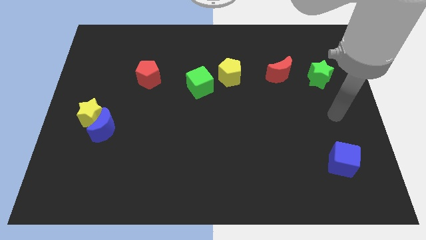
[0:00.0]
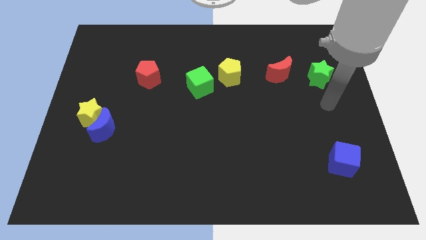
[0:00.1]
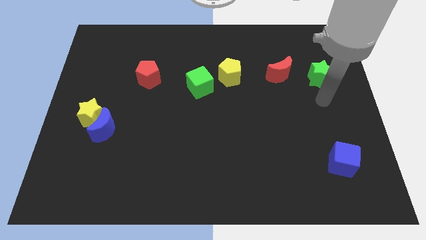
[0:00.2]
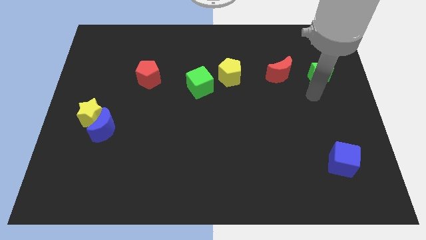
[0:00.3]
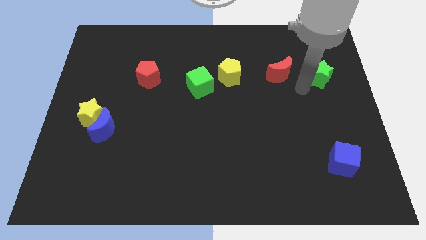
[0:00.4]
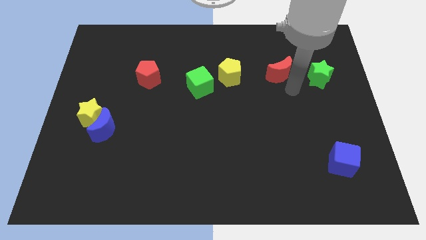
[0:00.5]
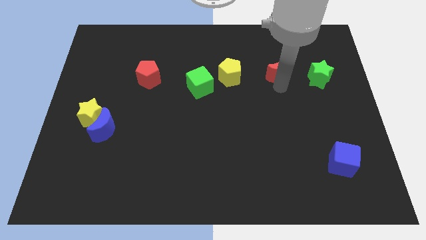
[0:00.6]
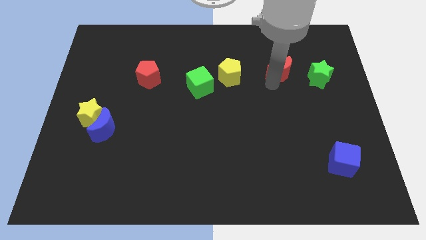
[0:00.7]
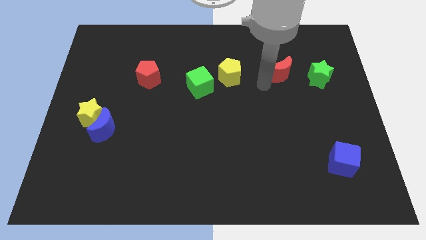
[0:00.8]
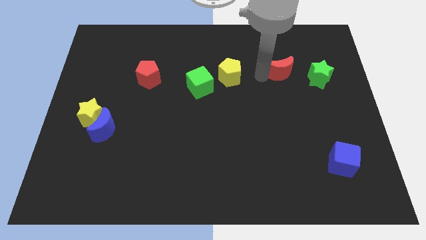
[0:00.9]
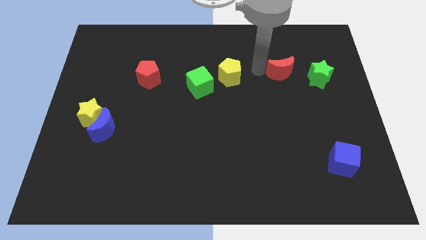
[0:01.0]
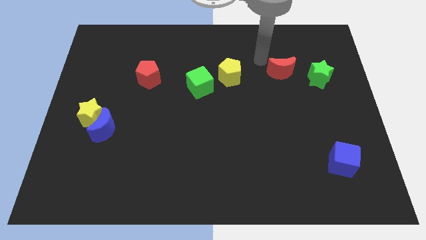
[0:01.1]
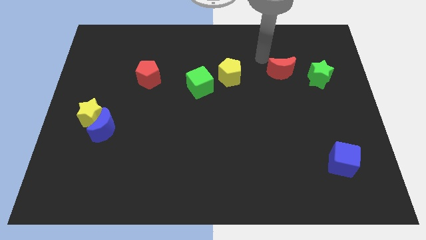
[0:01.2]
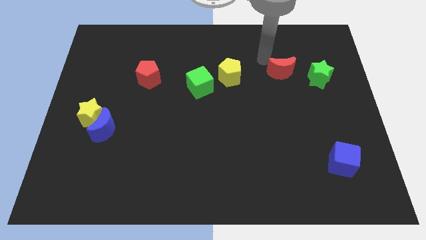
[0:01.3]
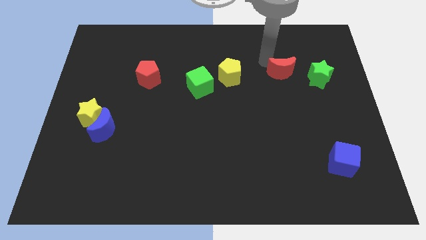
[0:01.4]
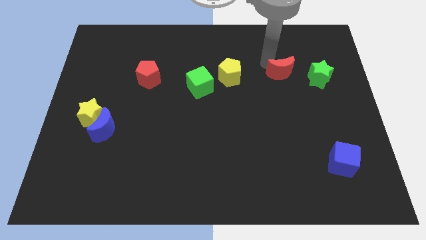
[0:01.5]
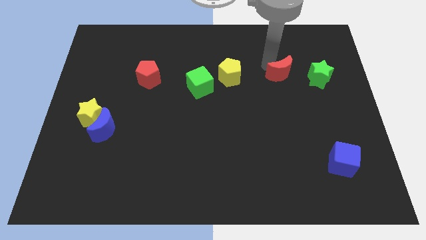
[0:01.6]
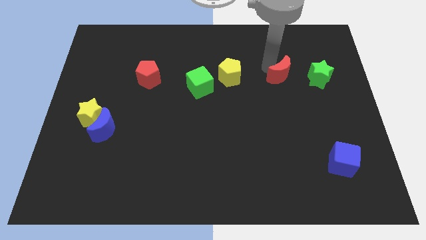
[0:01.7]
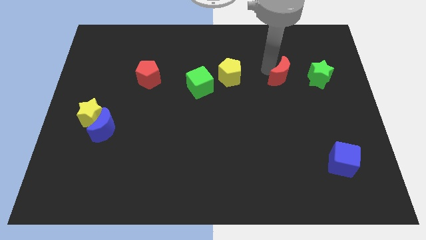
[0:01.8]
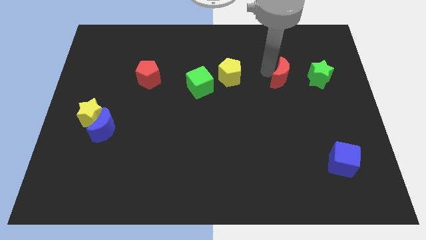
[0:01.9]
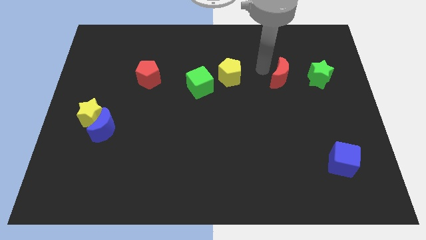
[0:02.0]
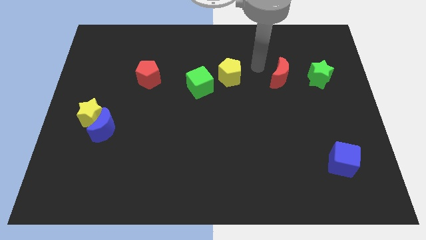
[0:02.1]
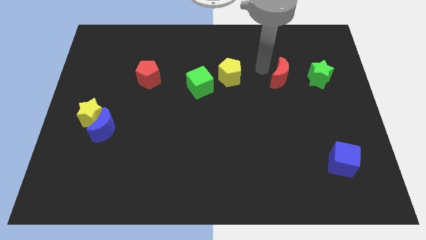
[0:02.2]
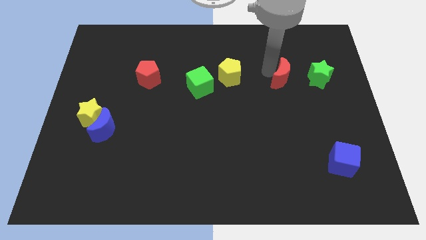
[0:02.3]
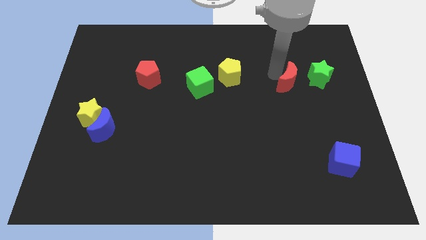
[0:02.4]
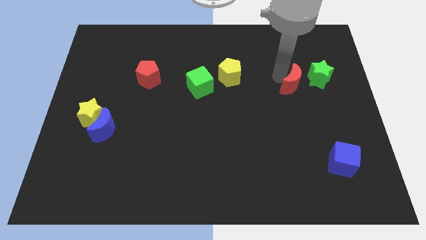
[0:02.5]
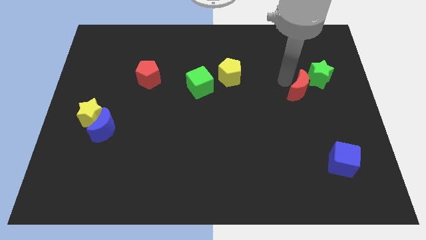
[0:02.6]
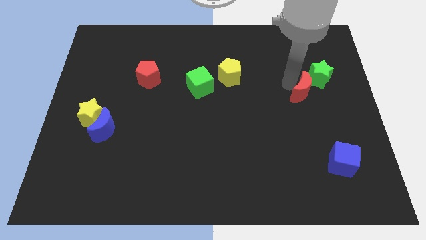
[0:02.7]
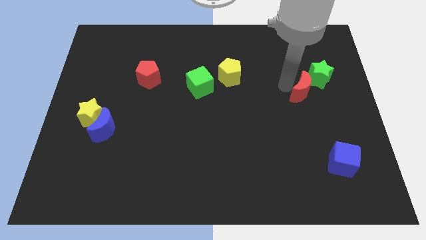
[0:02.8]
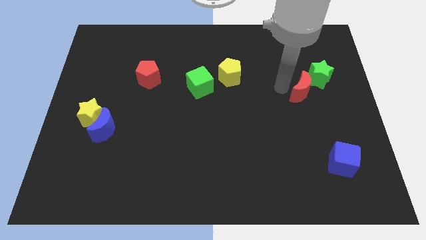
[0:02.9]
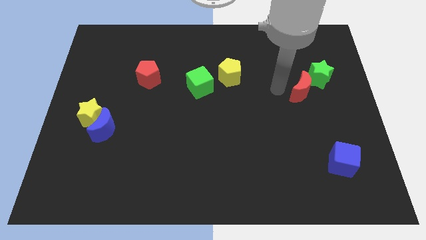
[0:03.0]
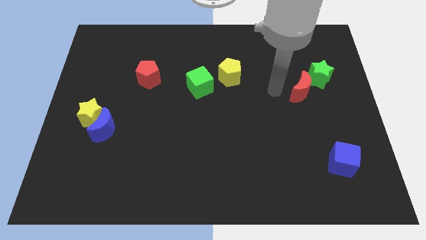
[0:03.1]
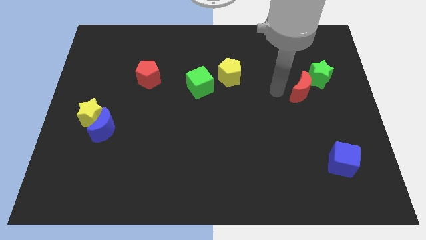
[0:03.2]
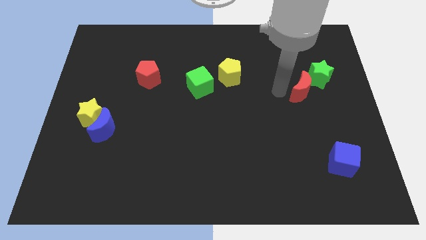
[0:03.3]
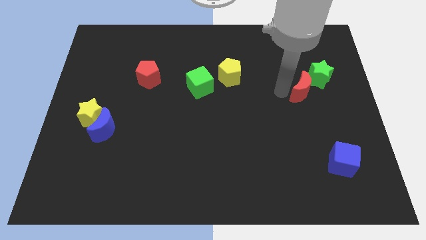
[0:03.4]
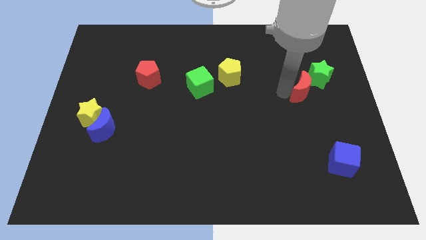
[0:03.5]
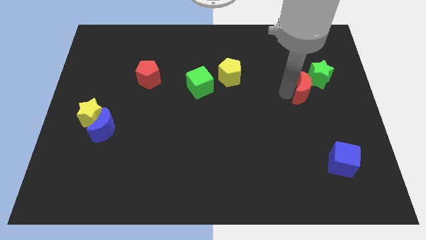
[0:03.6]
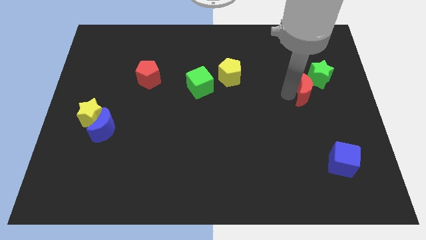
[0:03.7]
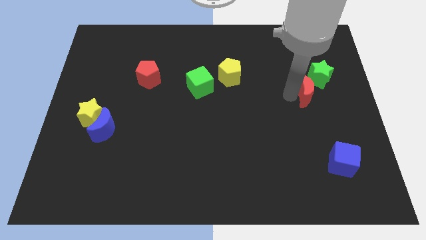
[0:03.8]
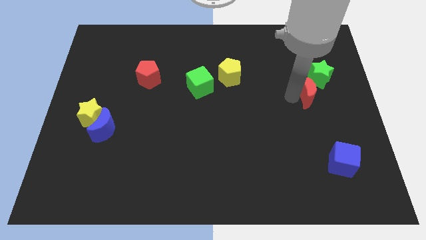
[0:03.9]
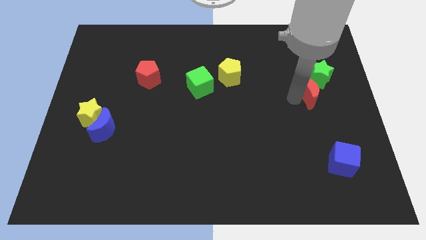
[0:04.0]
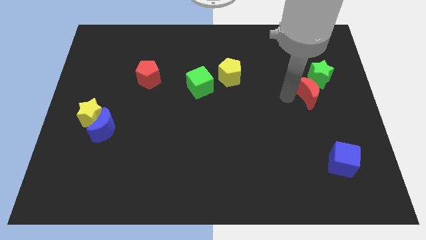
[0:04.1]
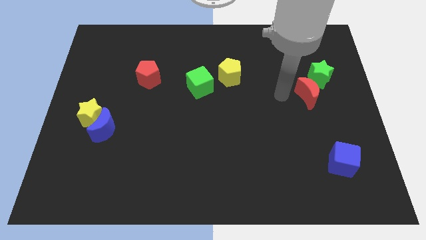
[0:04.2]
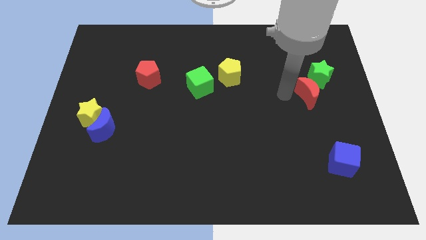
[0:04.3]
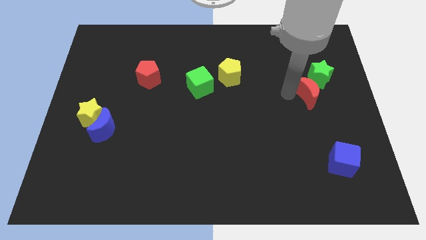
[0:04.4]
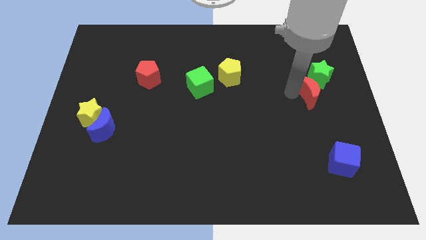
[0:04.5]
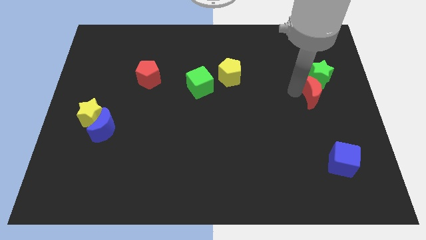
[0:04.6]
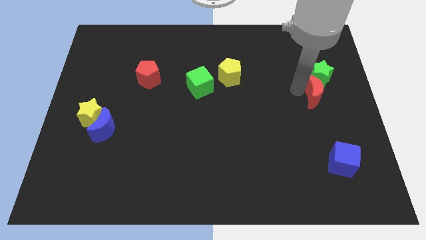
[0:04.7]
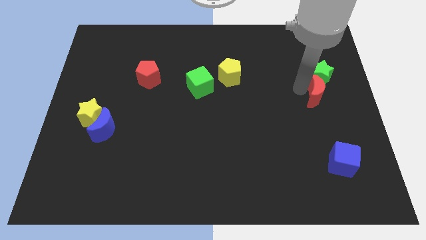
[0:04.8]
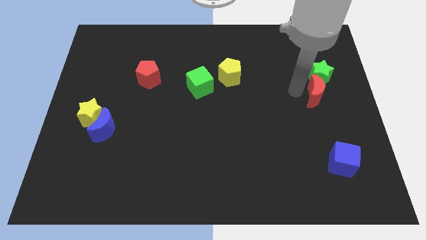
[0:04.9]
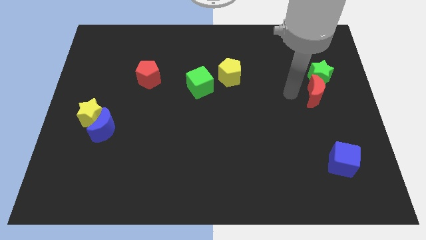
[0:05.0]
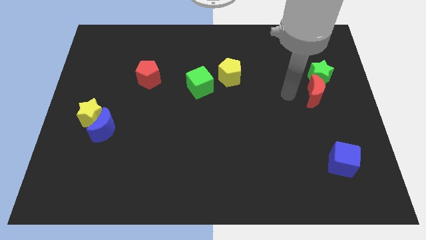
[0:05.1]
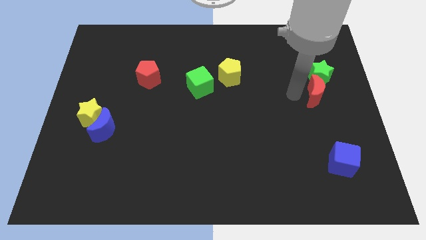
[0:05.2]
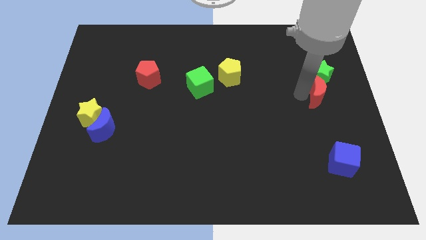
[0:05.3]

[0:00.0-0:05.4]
slide the red moon to the center right

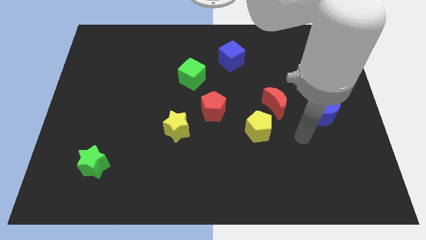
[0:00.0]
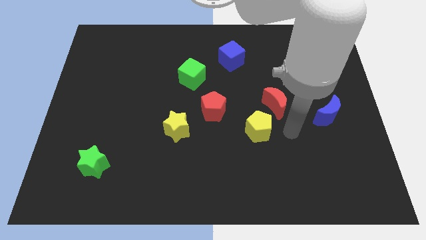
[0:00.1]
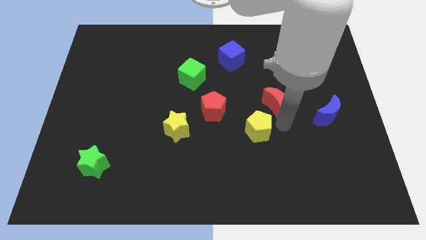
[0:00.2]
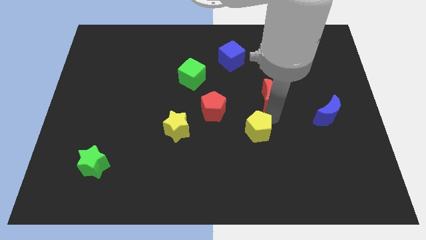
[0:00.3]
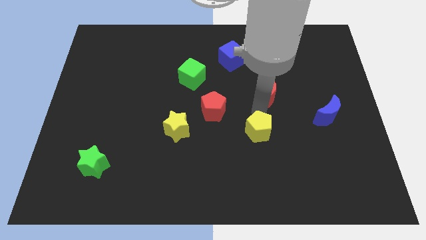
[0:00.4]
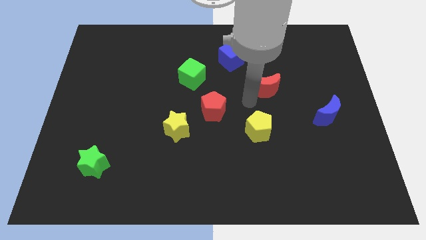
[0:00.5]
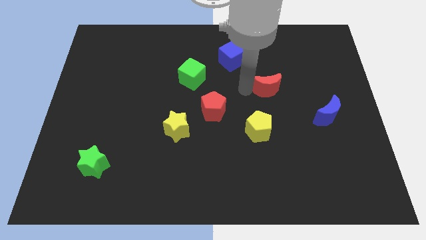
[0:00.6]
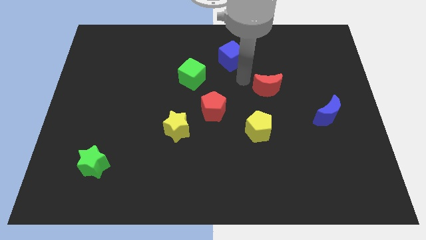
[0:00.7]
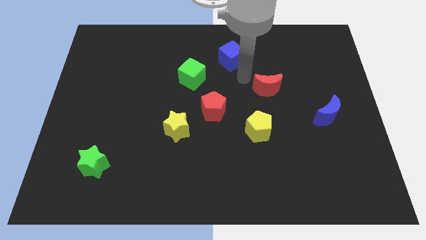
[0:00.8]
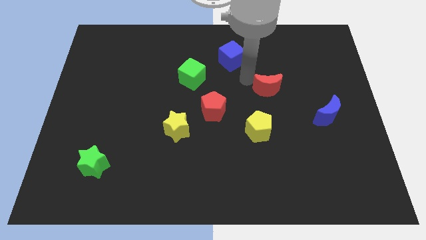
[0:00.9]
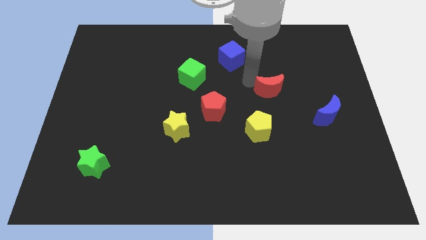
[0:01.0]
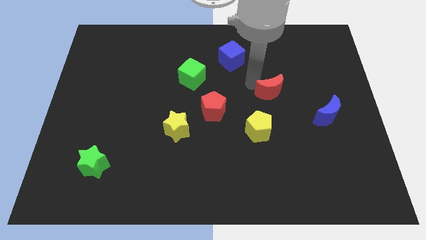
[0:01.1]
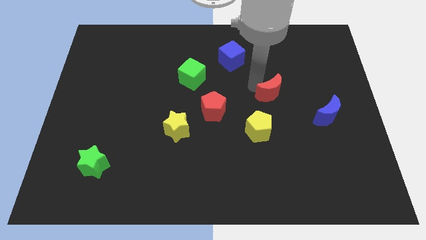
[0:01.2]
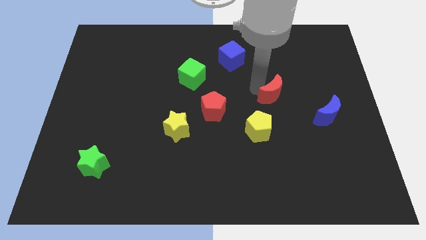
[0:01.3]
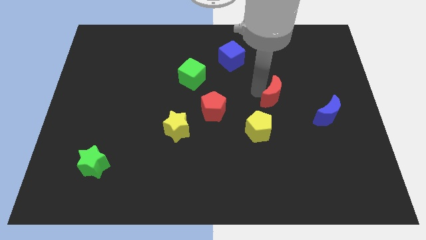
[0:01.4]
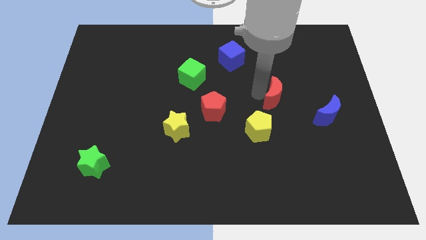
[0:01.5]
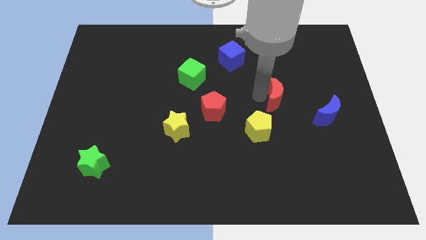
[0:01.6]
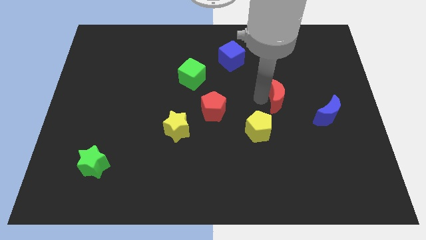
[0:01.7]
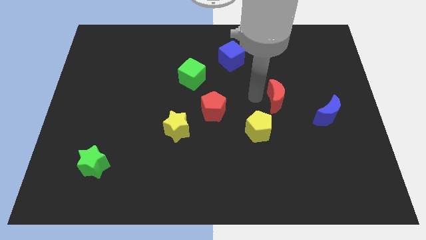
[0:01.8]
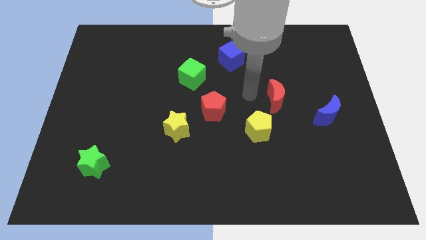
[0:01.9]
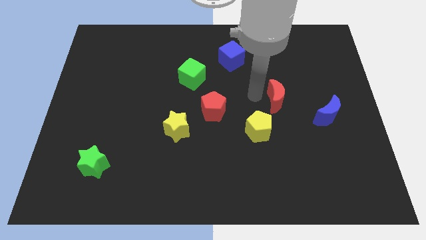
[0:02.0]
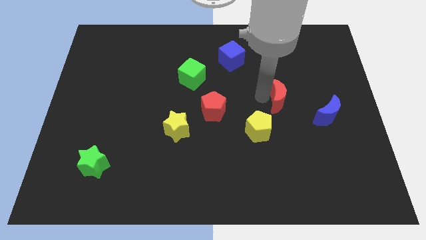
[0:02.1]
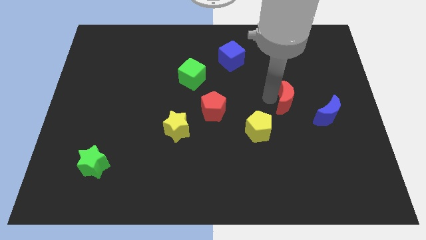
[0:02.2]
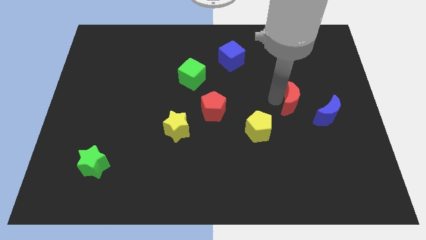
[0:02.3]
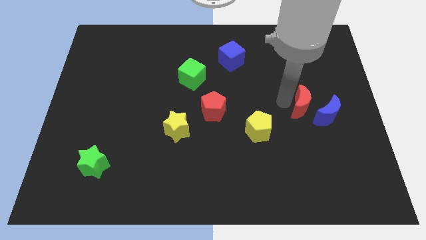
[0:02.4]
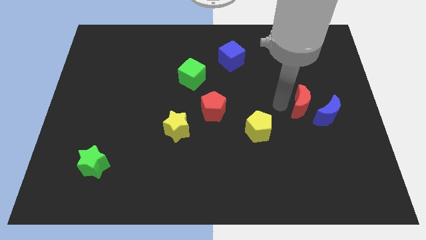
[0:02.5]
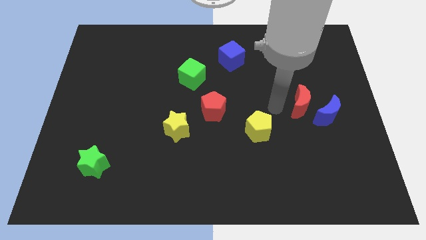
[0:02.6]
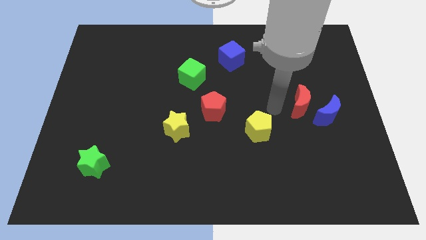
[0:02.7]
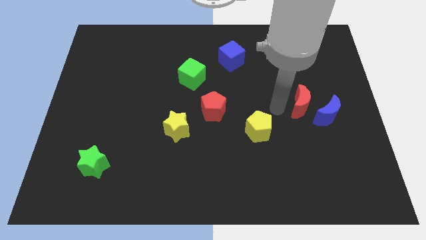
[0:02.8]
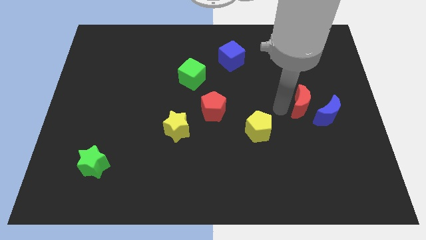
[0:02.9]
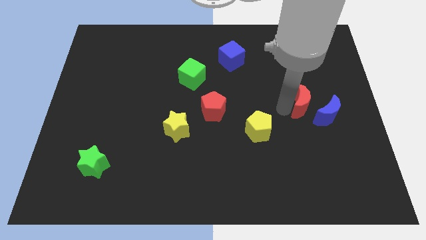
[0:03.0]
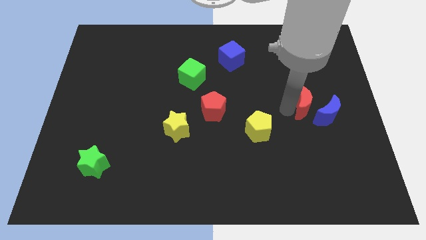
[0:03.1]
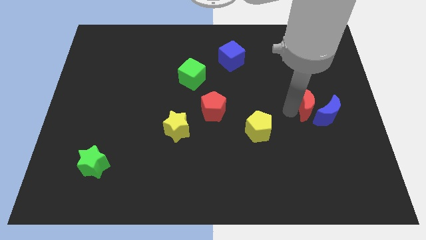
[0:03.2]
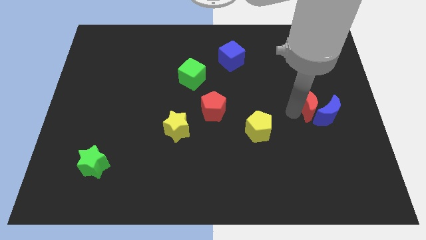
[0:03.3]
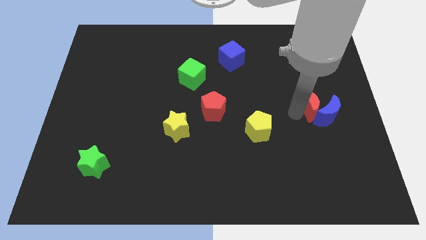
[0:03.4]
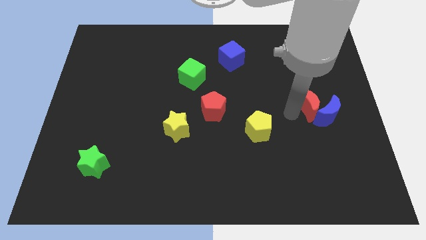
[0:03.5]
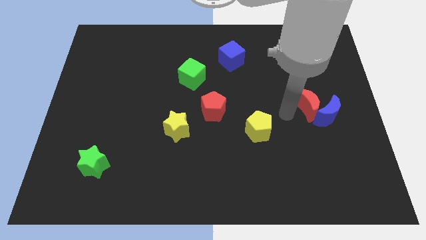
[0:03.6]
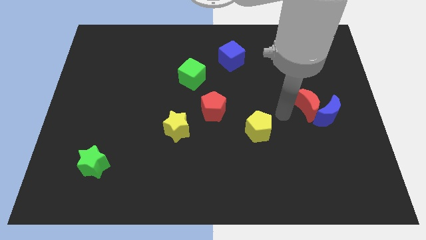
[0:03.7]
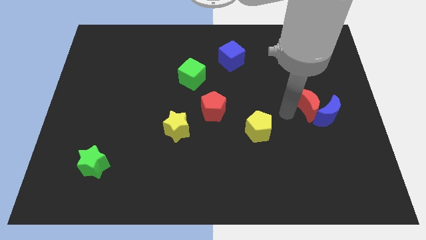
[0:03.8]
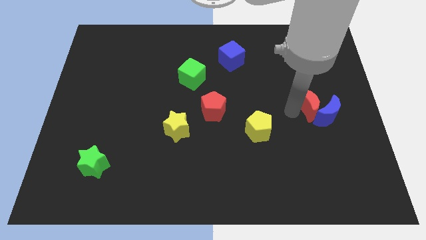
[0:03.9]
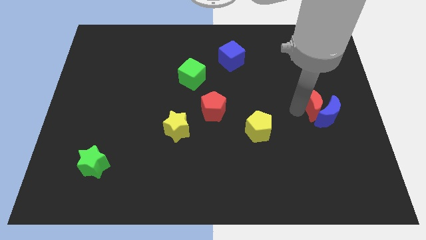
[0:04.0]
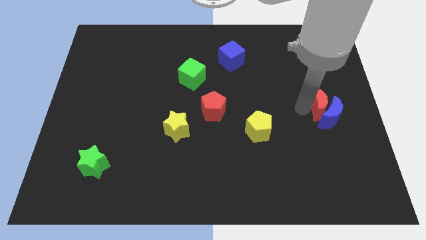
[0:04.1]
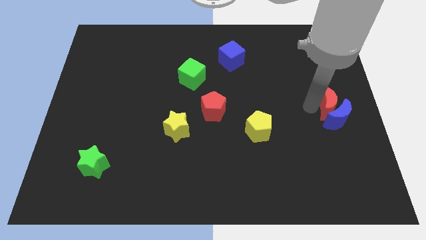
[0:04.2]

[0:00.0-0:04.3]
move the red moon to the right side
